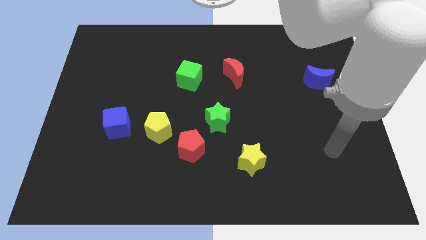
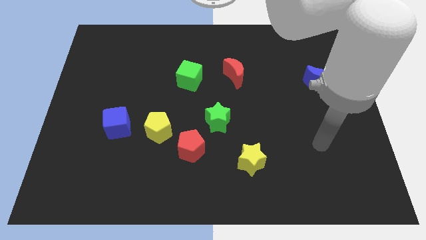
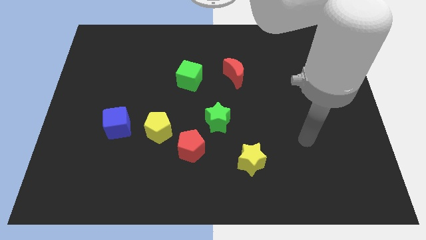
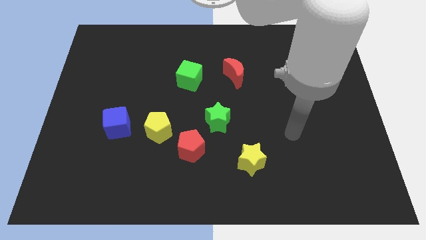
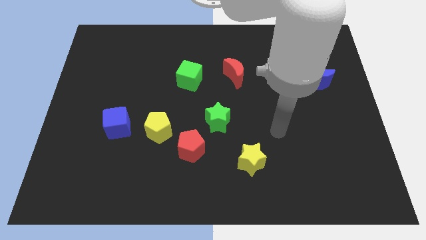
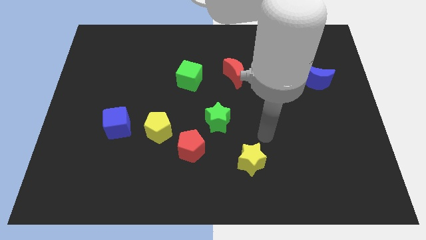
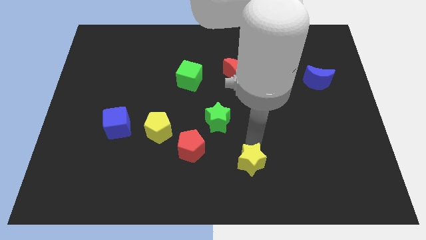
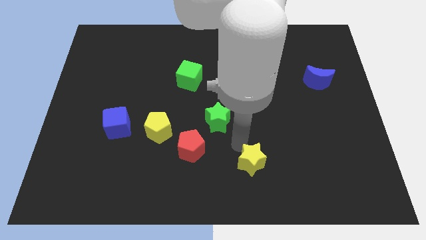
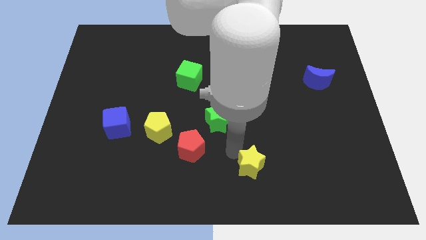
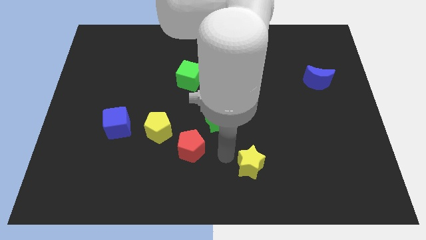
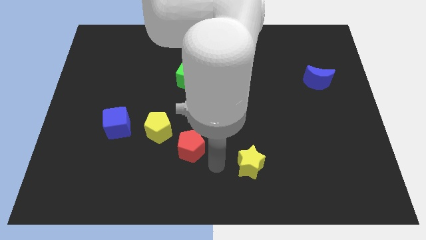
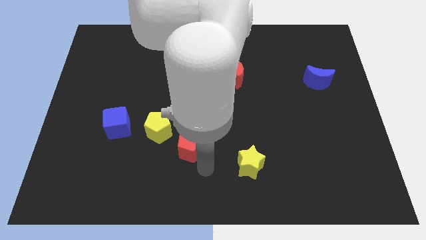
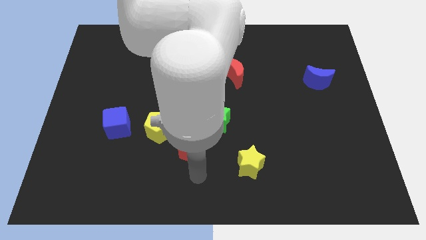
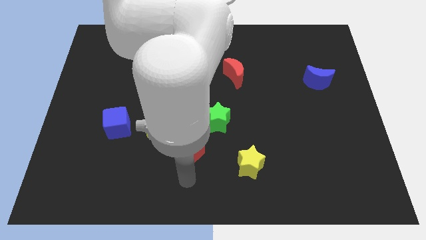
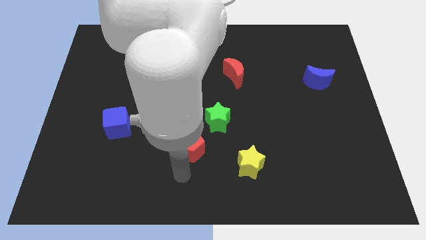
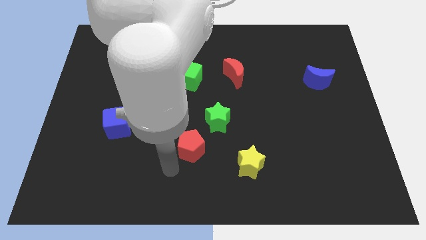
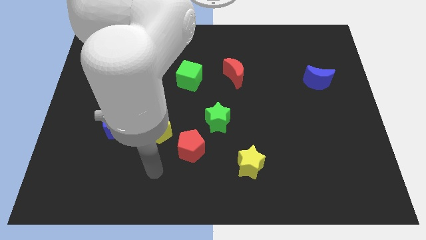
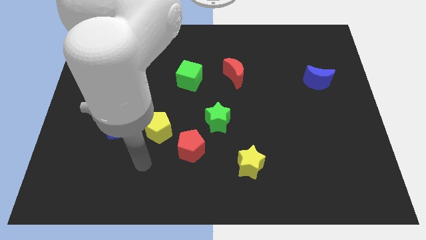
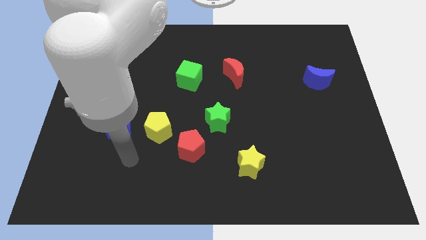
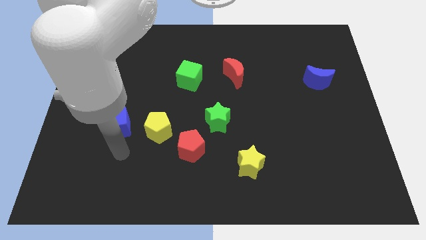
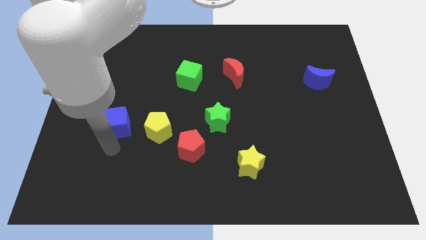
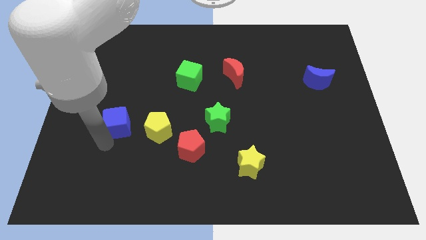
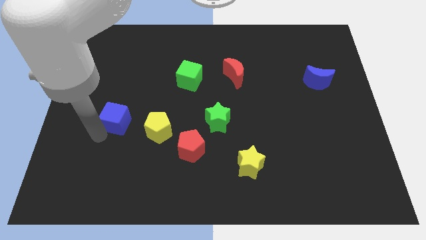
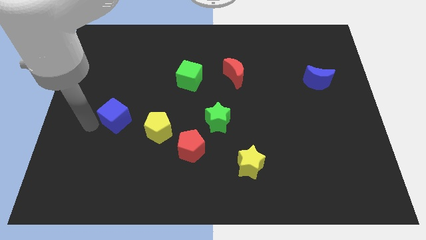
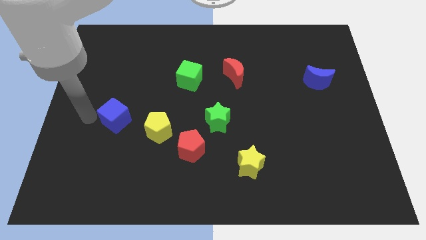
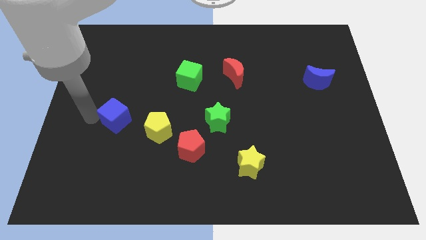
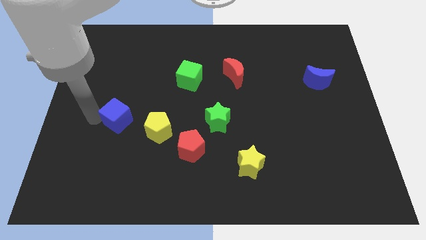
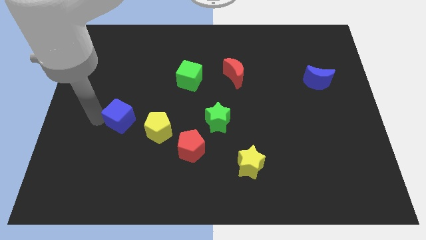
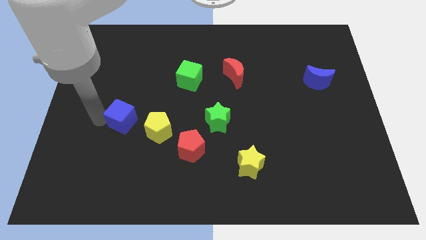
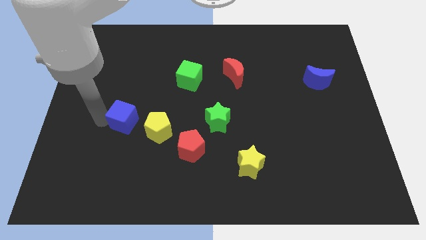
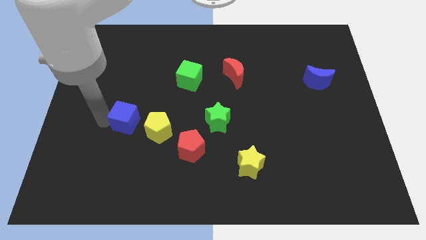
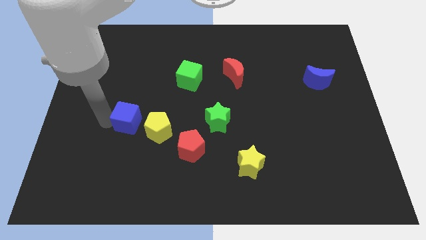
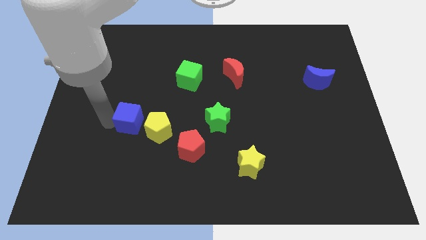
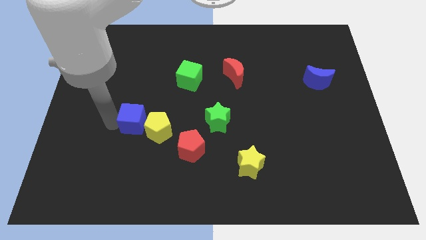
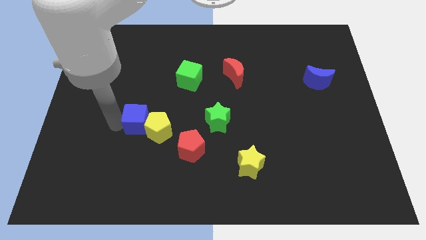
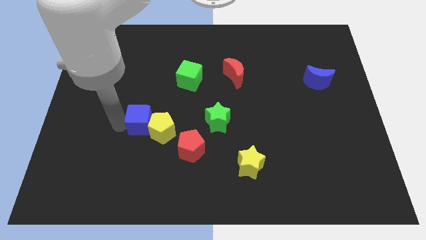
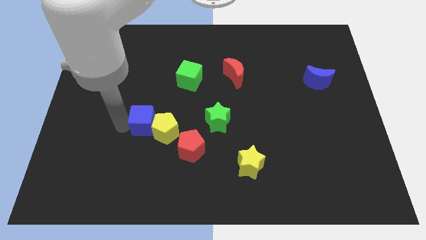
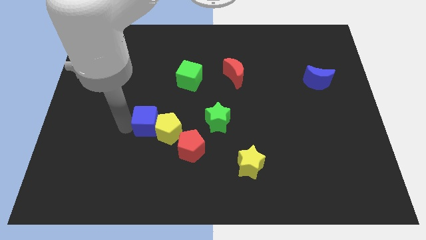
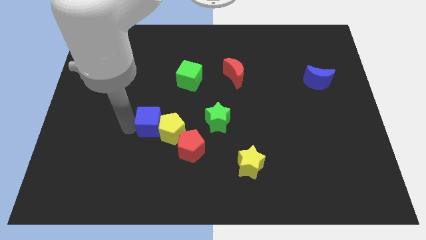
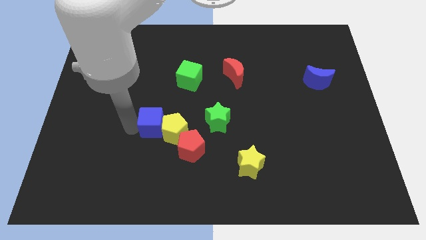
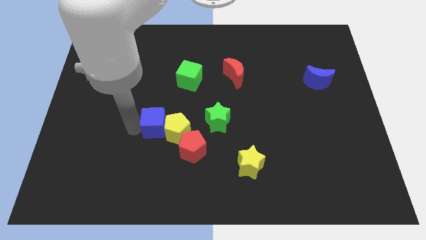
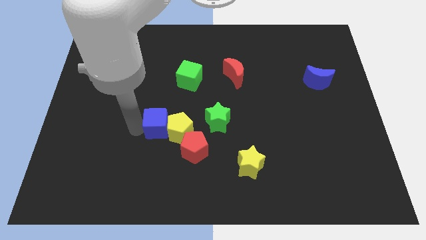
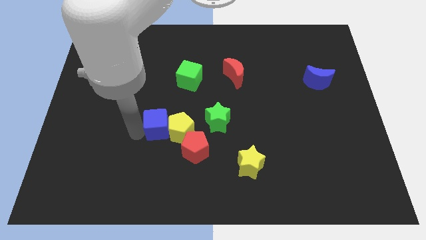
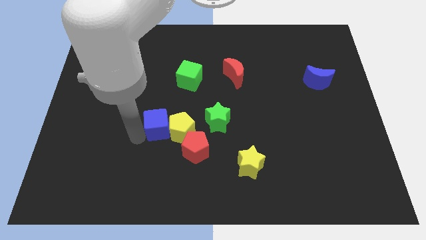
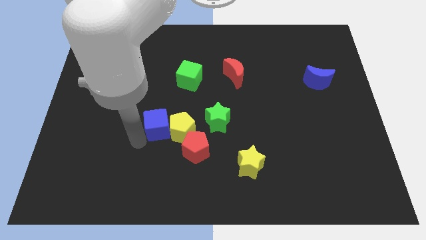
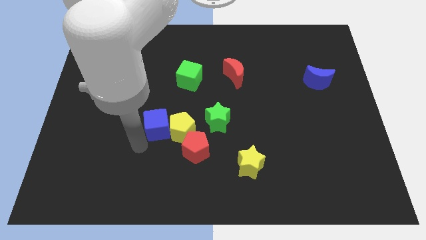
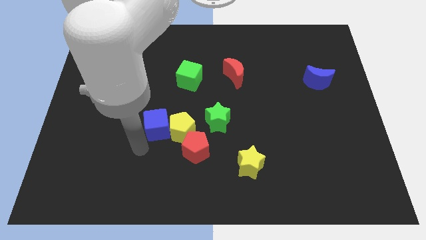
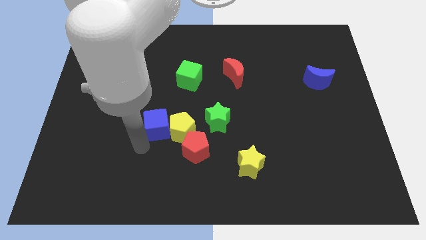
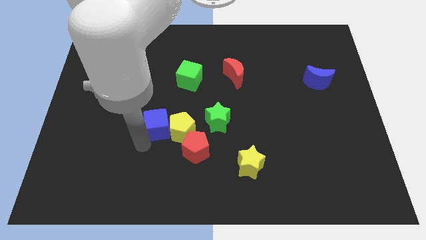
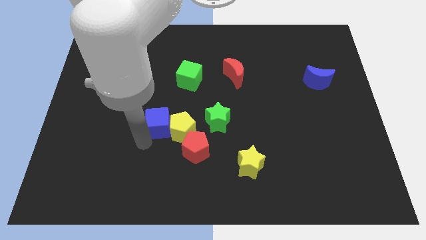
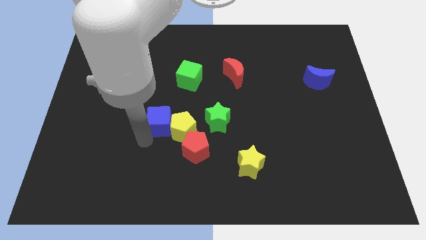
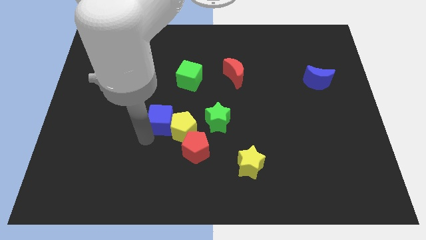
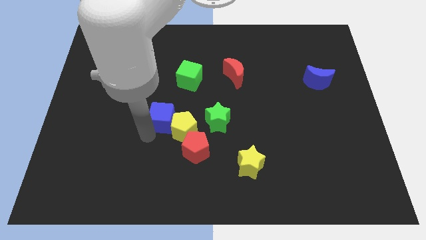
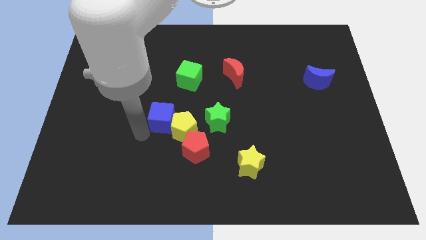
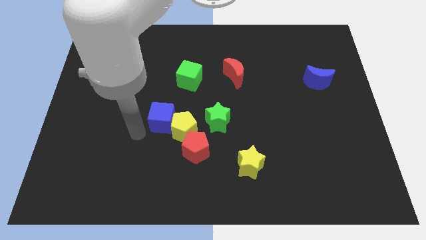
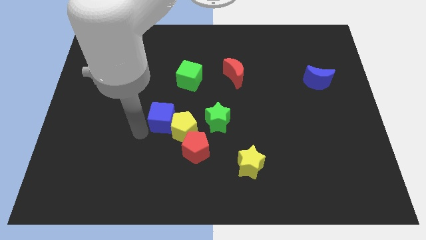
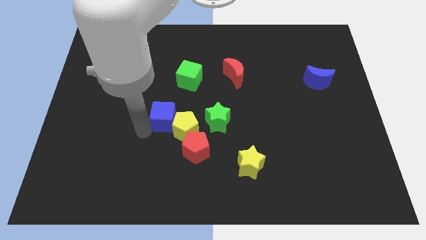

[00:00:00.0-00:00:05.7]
move the blue cube to the middle

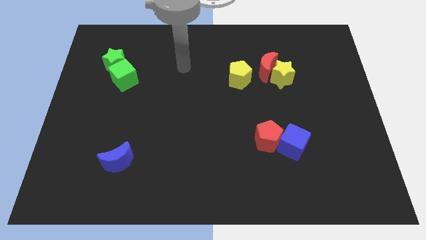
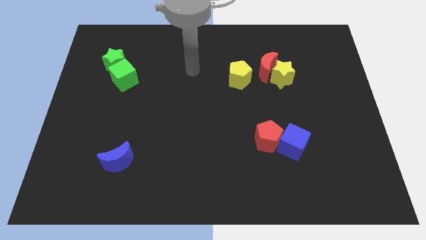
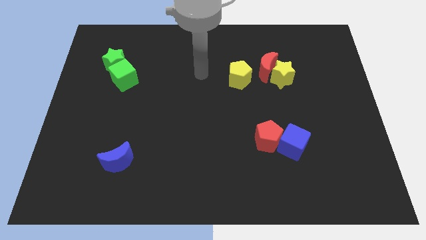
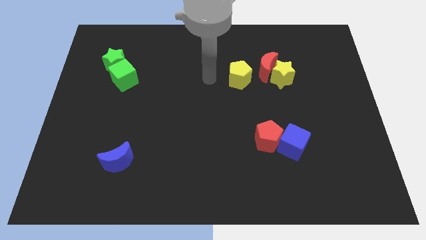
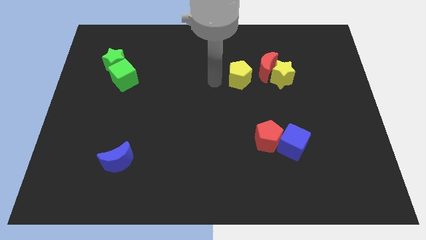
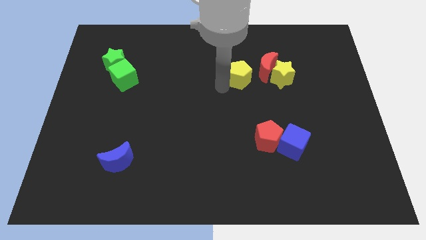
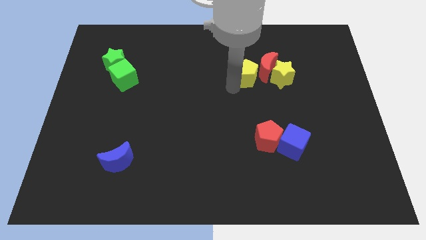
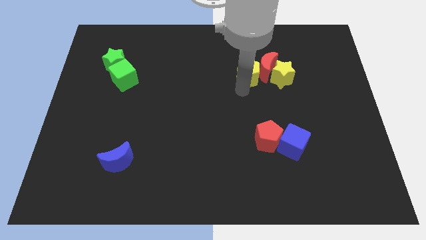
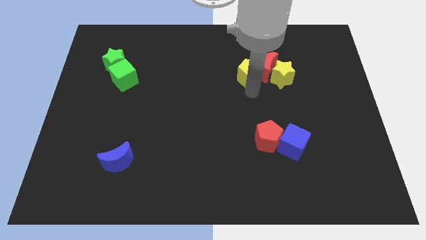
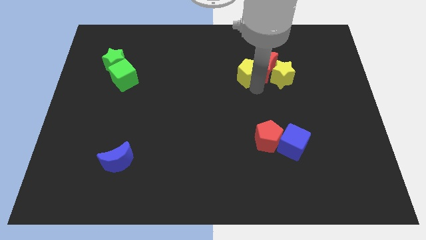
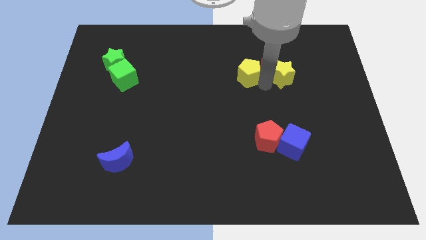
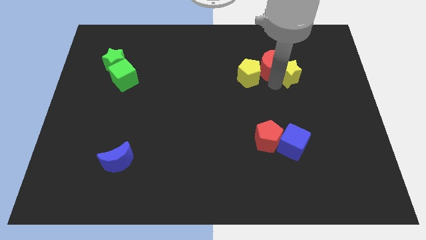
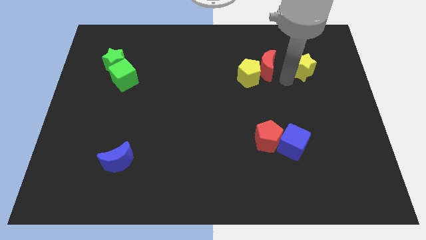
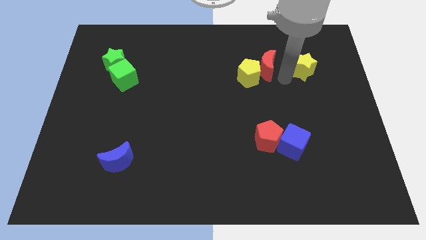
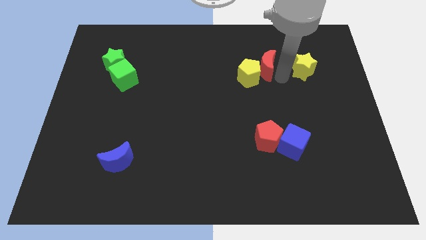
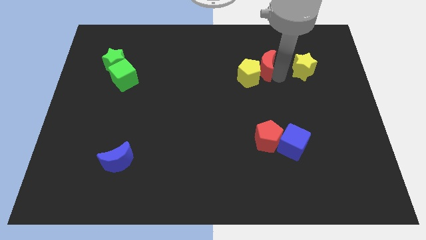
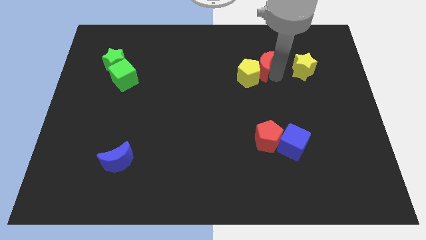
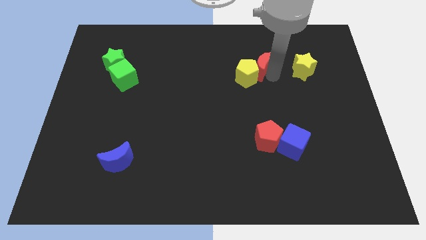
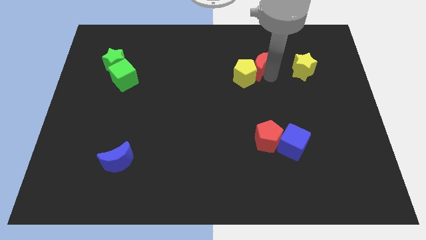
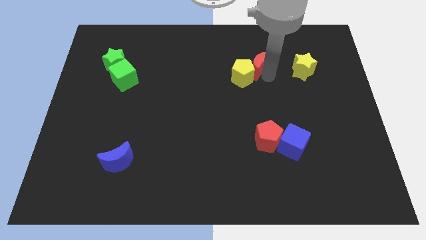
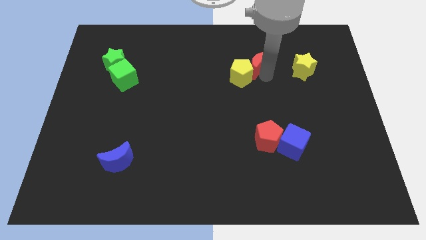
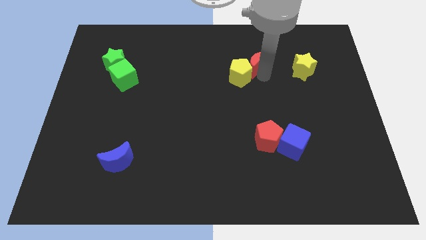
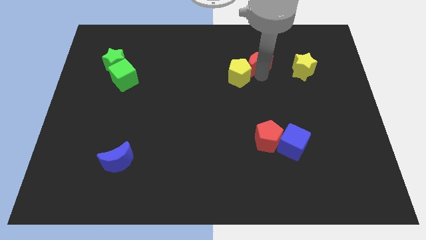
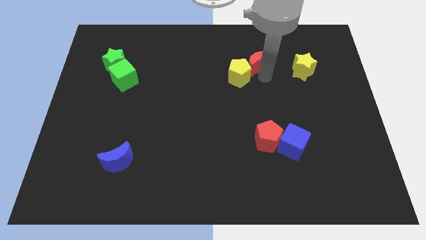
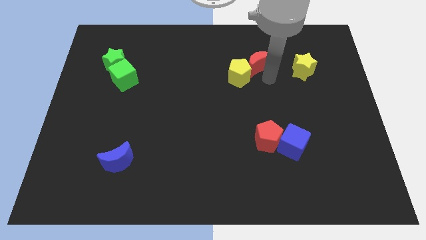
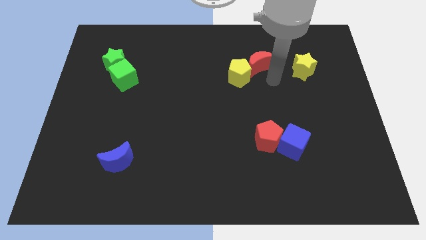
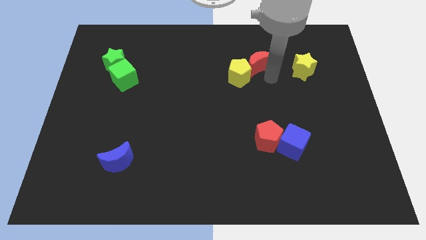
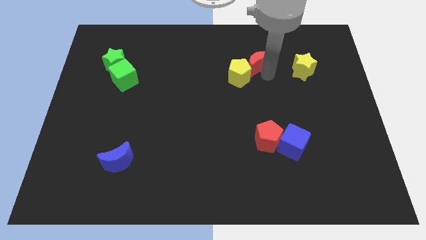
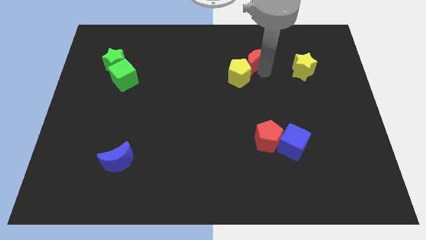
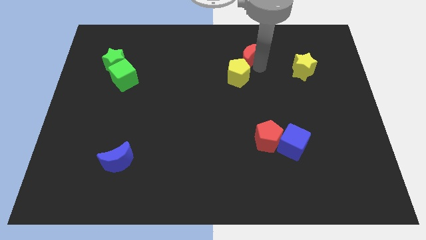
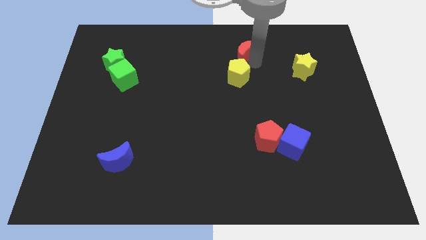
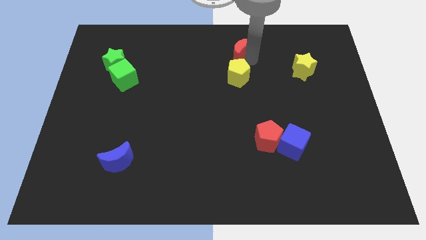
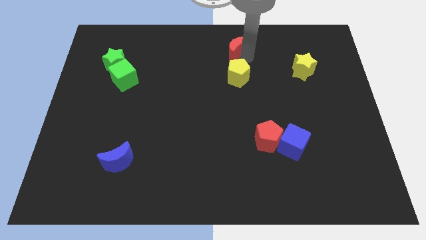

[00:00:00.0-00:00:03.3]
push the red moon to the top
